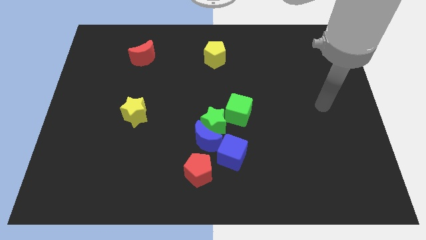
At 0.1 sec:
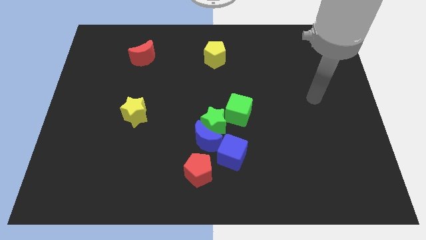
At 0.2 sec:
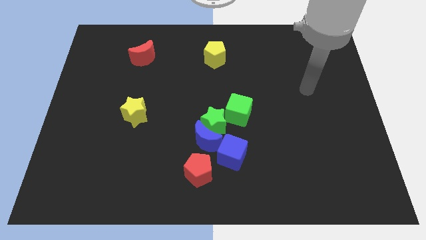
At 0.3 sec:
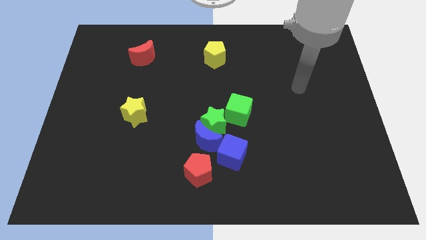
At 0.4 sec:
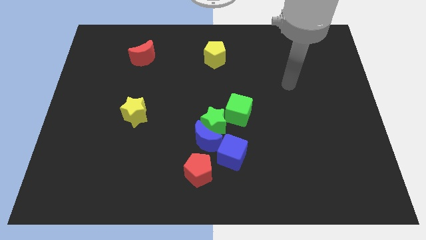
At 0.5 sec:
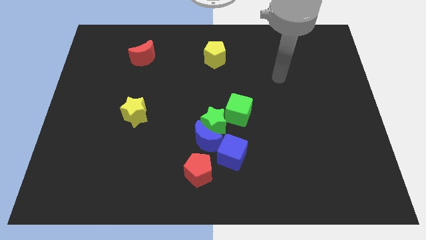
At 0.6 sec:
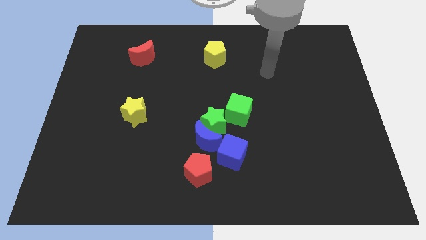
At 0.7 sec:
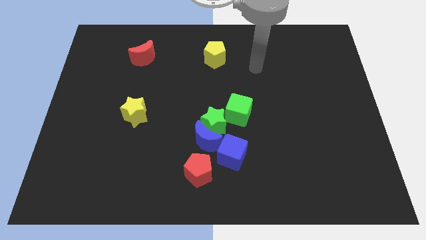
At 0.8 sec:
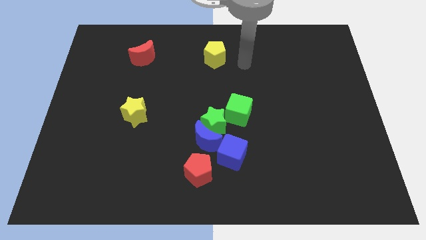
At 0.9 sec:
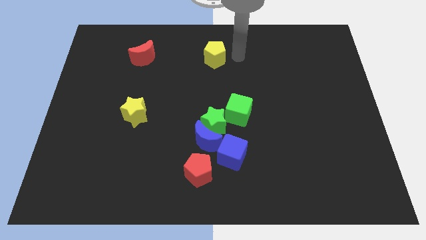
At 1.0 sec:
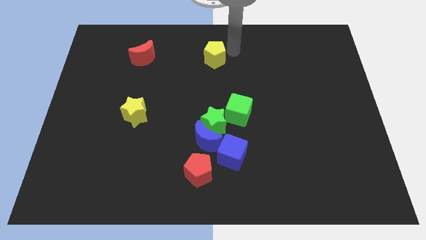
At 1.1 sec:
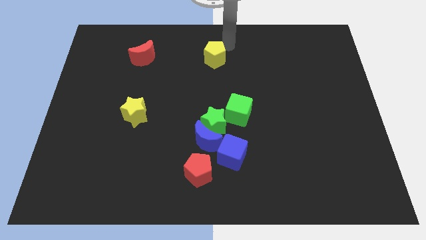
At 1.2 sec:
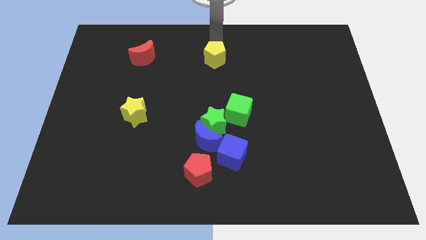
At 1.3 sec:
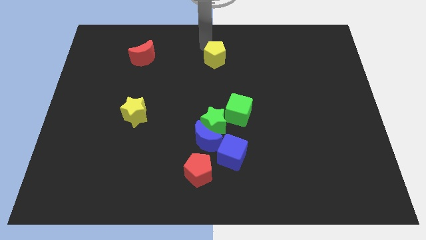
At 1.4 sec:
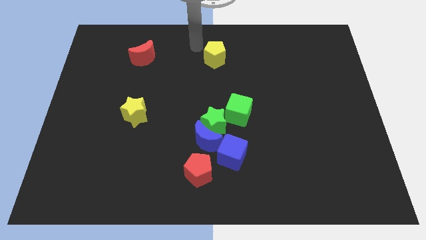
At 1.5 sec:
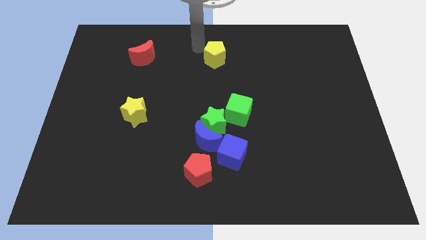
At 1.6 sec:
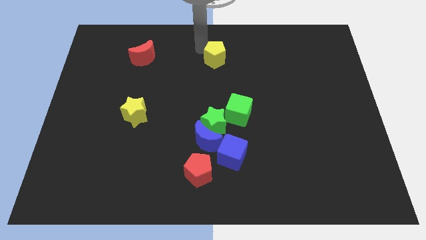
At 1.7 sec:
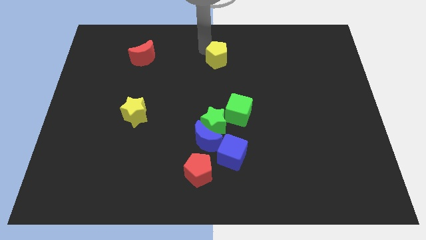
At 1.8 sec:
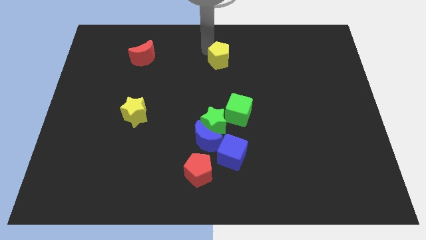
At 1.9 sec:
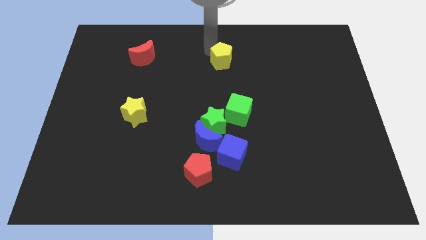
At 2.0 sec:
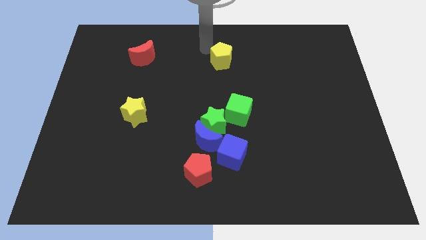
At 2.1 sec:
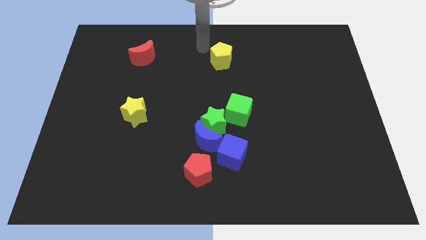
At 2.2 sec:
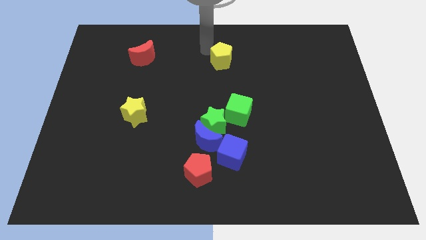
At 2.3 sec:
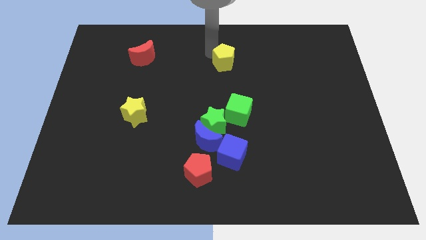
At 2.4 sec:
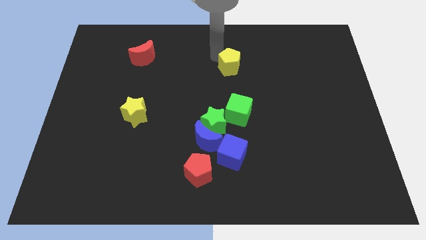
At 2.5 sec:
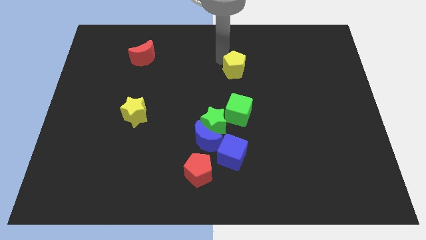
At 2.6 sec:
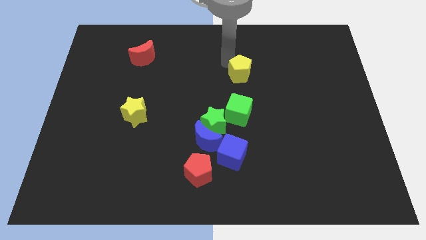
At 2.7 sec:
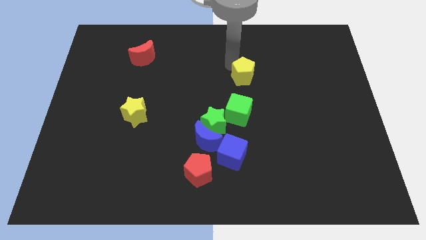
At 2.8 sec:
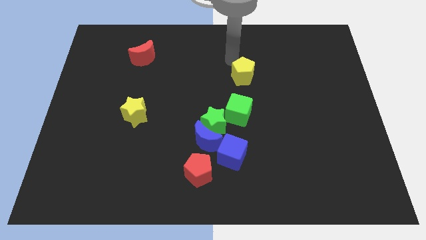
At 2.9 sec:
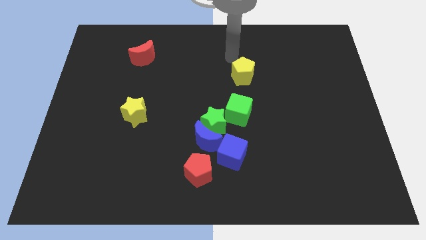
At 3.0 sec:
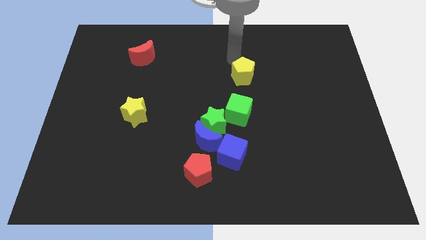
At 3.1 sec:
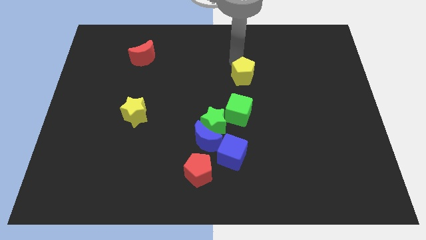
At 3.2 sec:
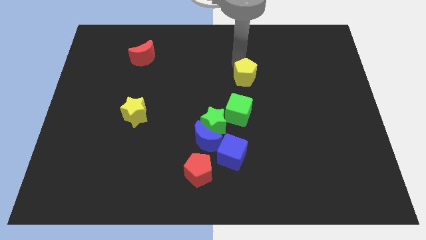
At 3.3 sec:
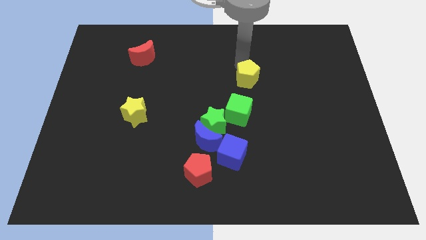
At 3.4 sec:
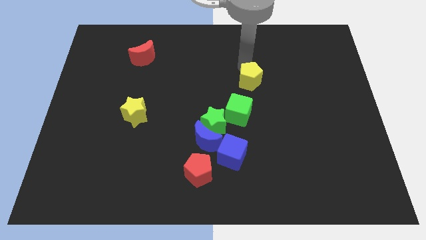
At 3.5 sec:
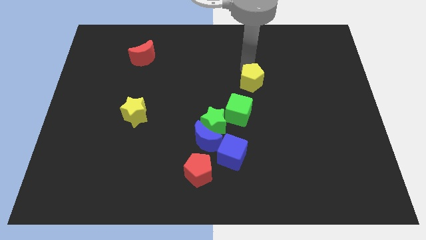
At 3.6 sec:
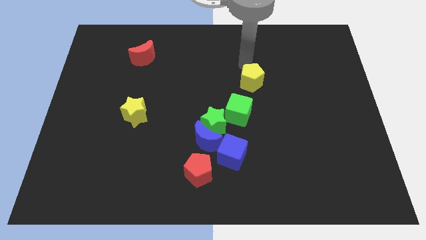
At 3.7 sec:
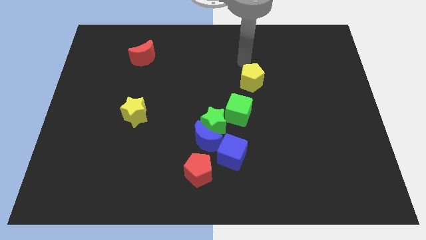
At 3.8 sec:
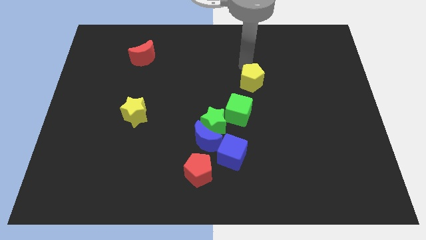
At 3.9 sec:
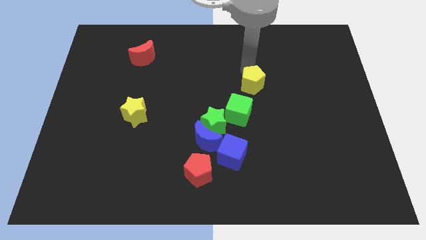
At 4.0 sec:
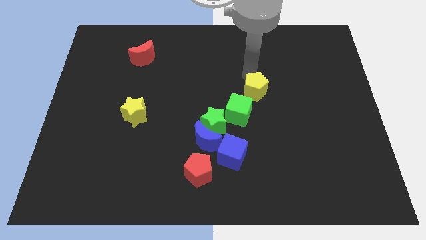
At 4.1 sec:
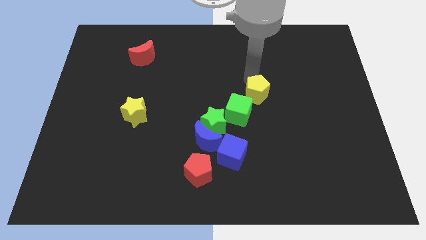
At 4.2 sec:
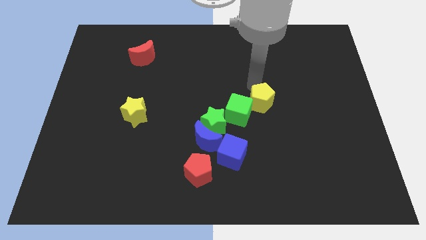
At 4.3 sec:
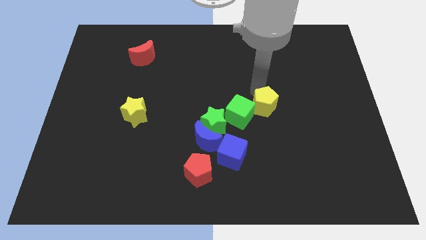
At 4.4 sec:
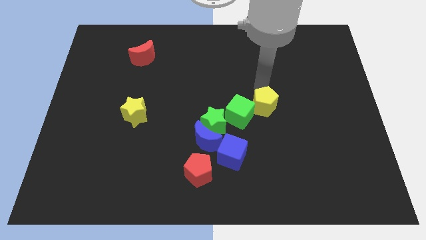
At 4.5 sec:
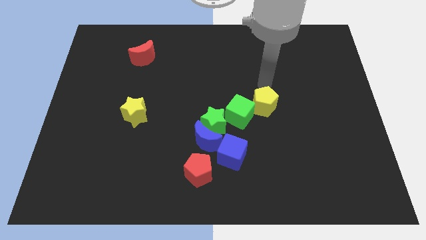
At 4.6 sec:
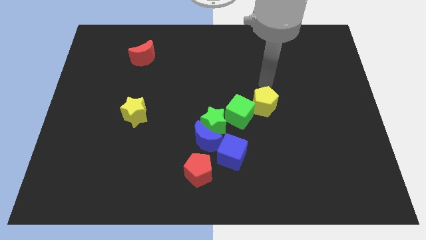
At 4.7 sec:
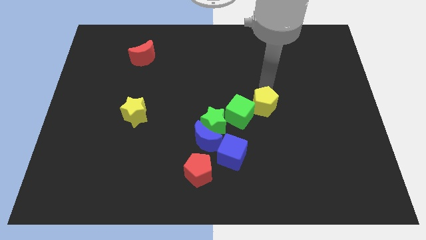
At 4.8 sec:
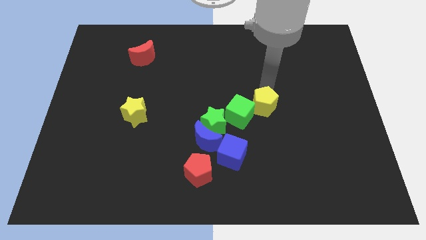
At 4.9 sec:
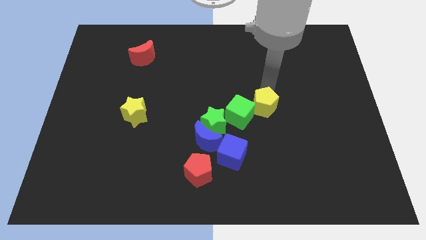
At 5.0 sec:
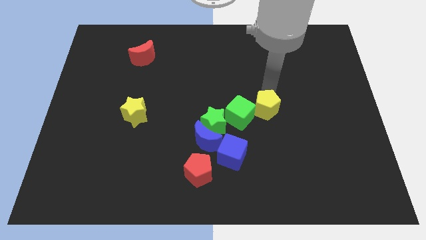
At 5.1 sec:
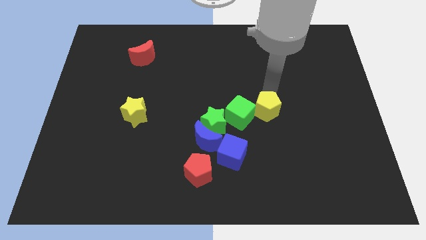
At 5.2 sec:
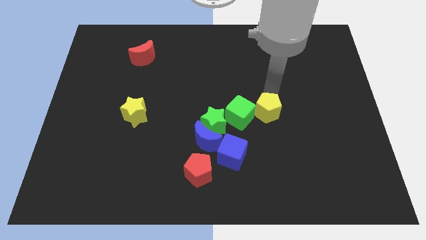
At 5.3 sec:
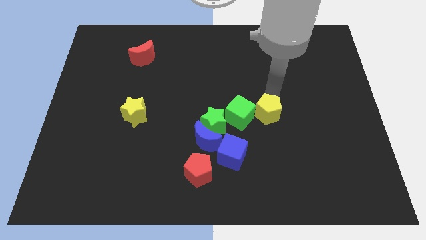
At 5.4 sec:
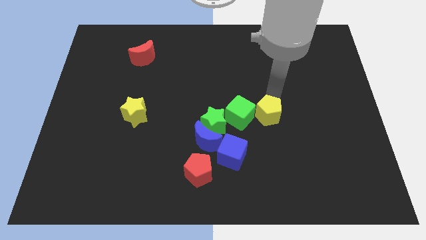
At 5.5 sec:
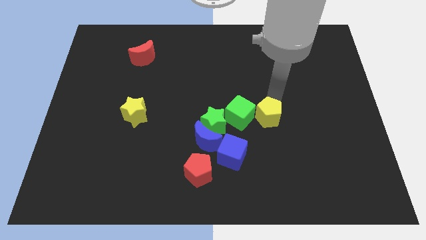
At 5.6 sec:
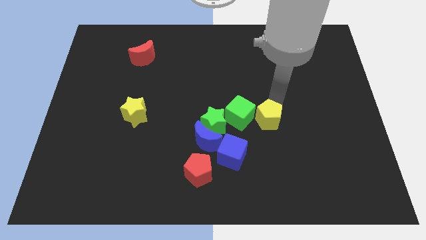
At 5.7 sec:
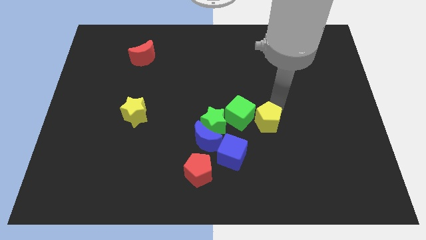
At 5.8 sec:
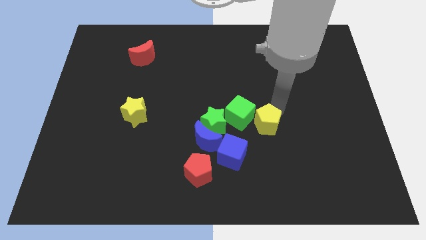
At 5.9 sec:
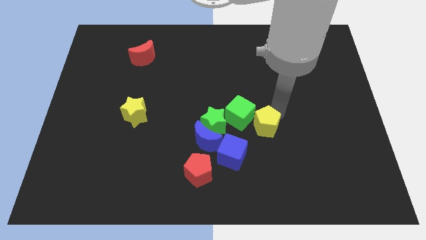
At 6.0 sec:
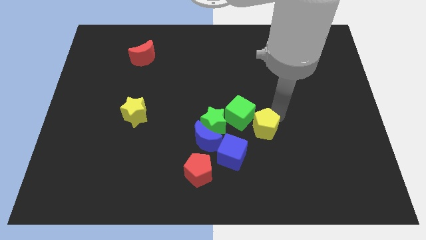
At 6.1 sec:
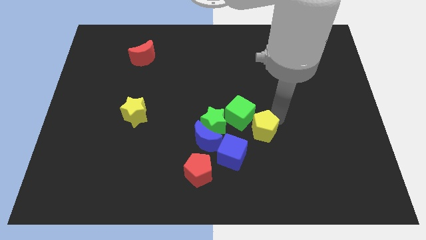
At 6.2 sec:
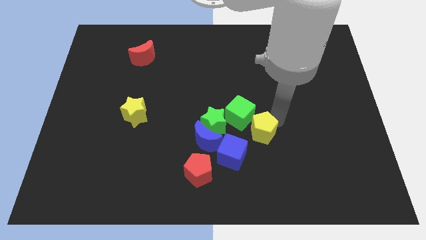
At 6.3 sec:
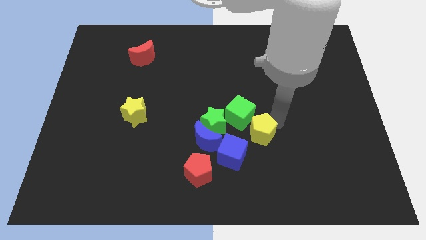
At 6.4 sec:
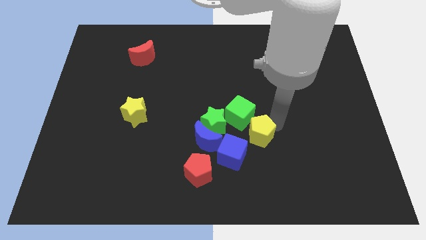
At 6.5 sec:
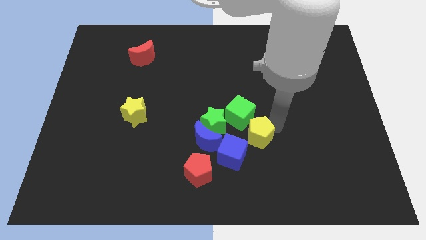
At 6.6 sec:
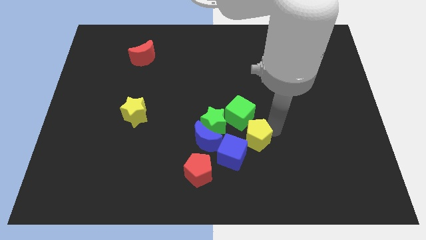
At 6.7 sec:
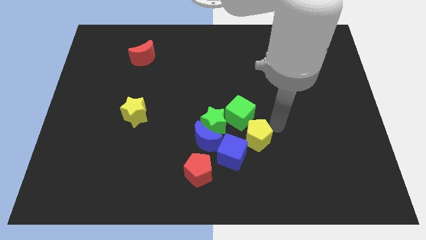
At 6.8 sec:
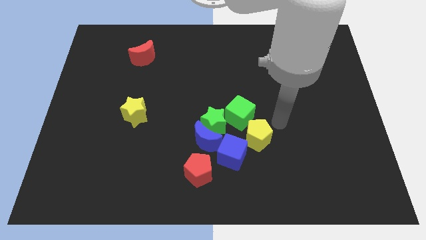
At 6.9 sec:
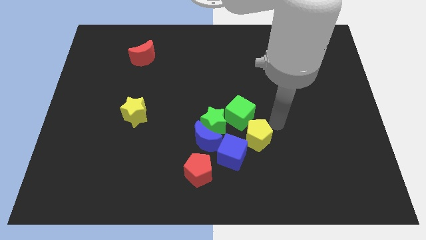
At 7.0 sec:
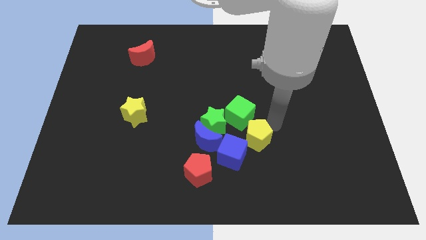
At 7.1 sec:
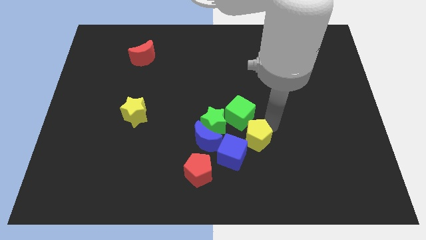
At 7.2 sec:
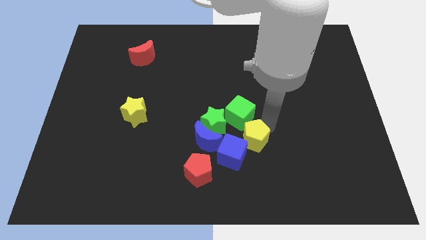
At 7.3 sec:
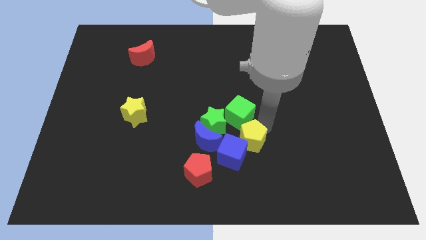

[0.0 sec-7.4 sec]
push the yellow pentagon next to the blue cube
